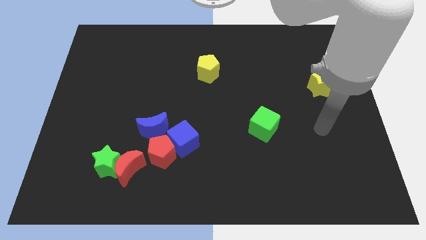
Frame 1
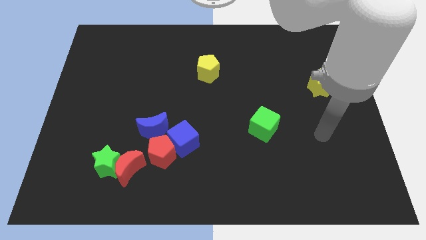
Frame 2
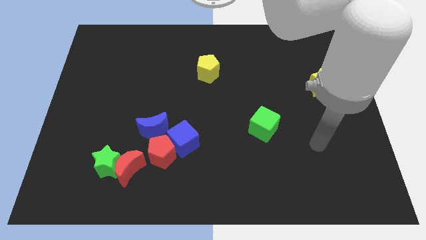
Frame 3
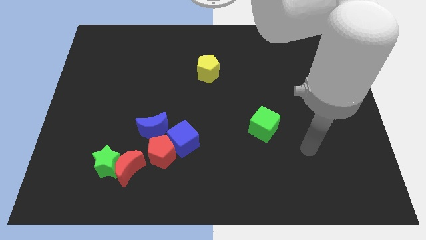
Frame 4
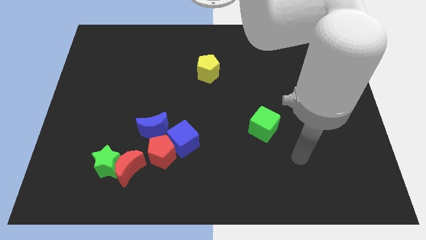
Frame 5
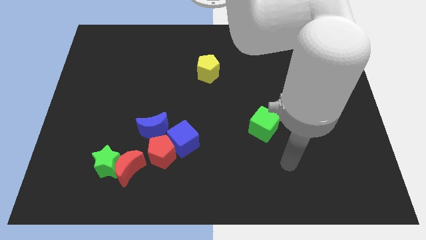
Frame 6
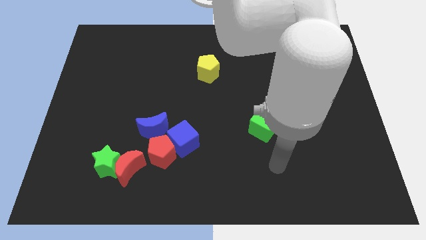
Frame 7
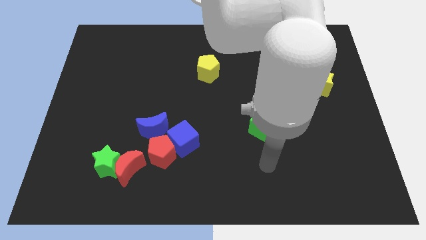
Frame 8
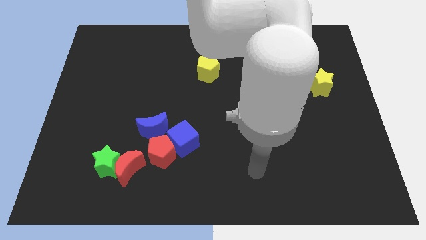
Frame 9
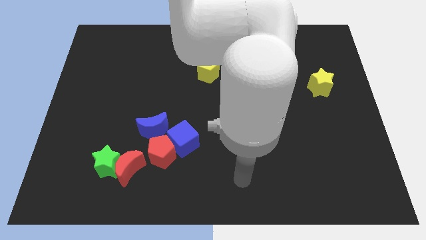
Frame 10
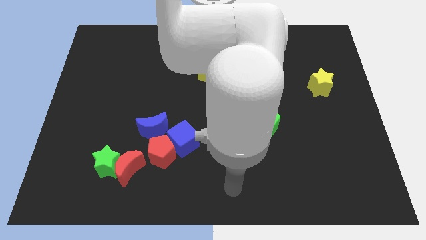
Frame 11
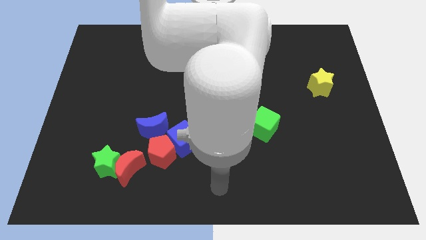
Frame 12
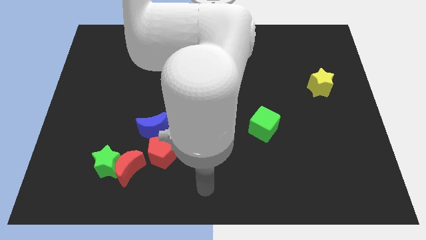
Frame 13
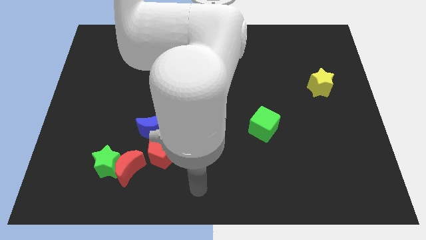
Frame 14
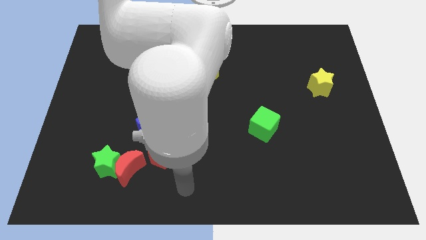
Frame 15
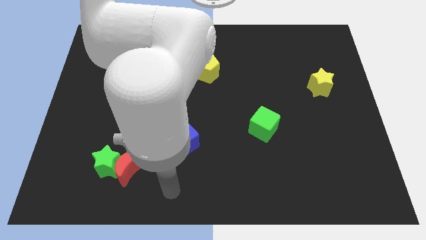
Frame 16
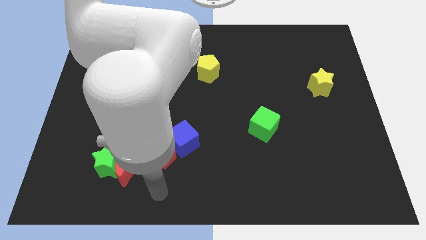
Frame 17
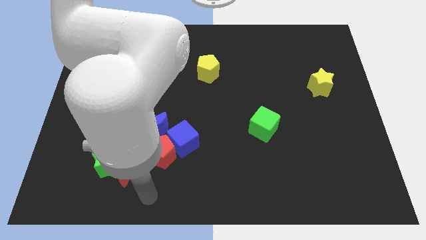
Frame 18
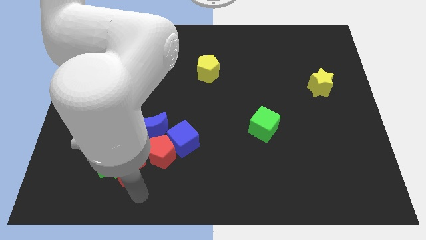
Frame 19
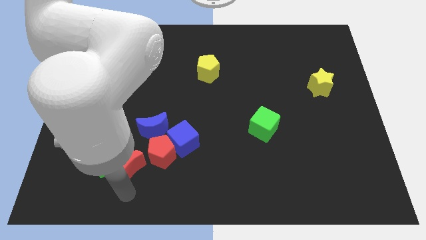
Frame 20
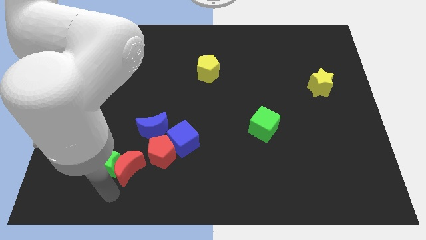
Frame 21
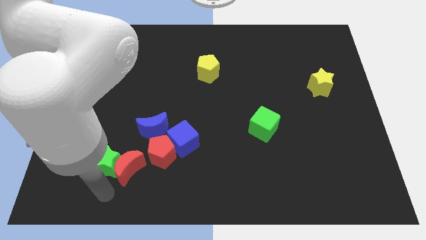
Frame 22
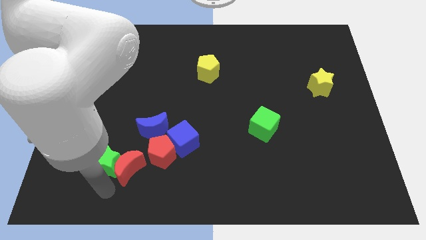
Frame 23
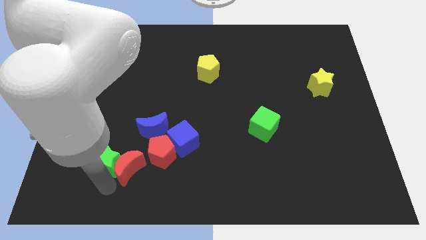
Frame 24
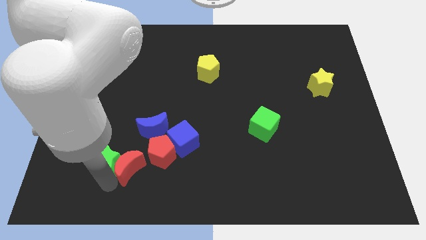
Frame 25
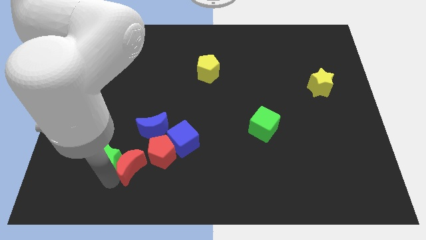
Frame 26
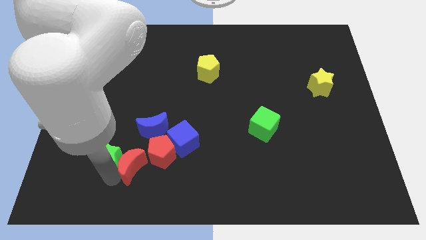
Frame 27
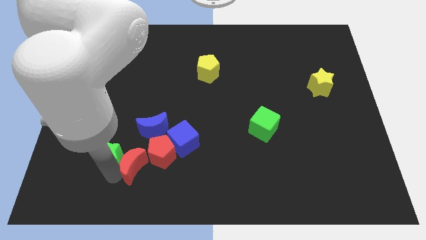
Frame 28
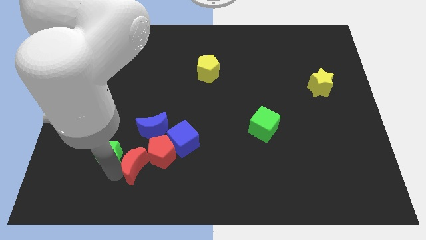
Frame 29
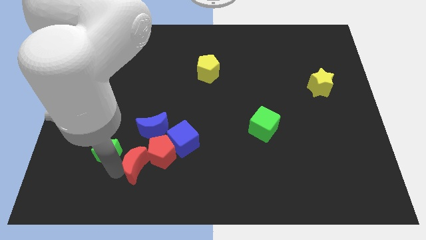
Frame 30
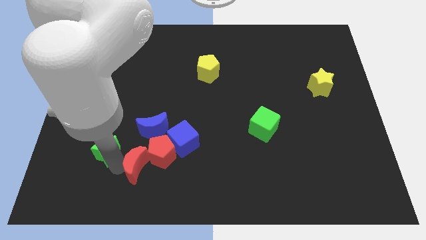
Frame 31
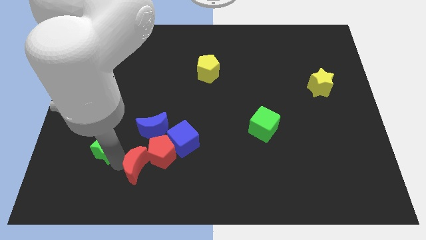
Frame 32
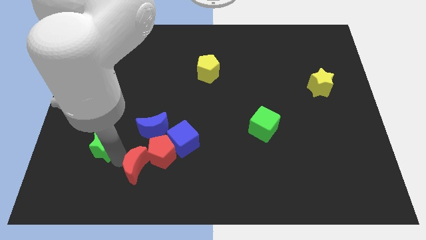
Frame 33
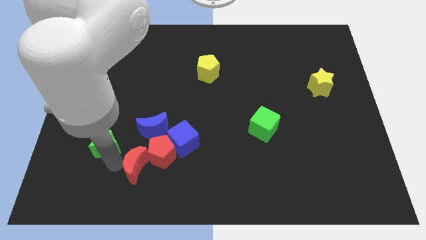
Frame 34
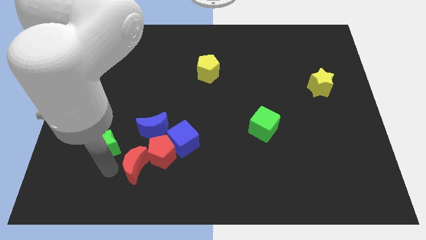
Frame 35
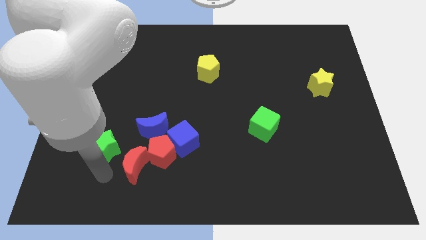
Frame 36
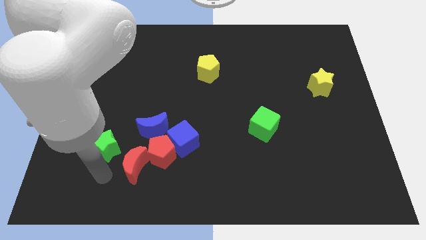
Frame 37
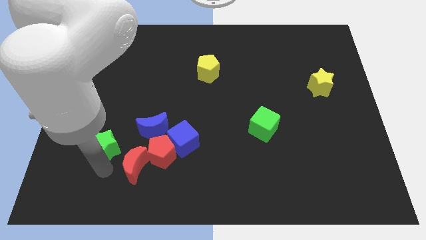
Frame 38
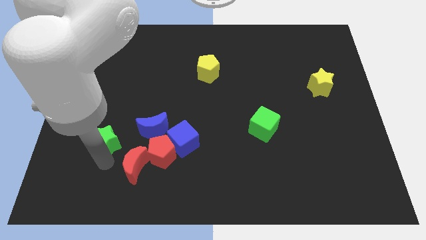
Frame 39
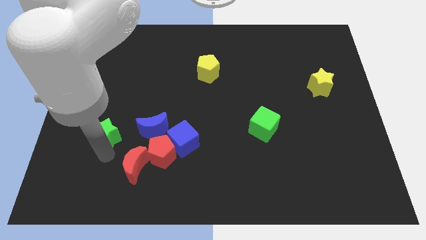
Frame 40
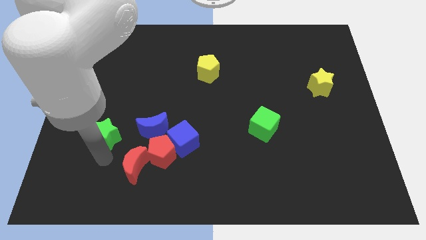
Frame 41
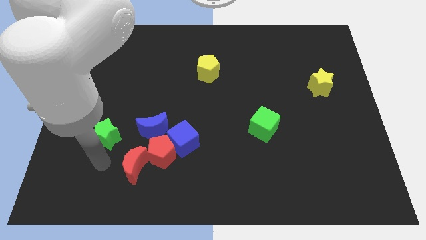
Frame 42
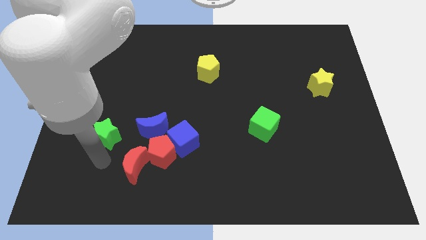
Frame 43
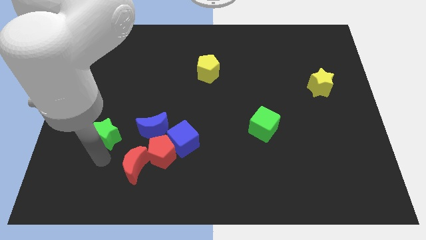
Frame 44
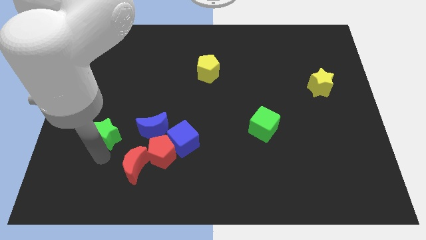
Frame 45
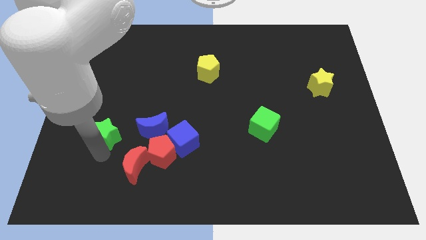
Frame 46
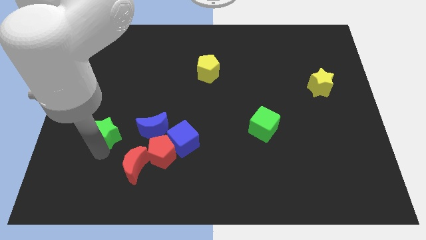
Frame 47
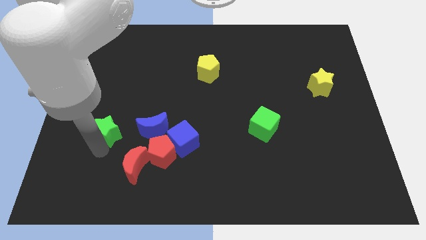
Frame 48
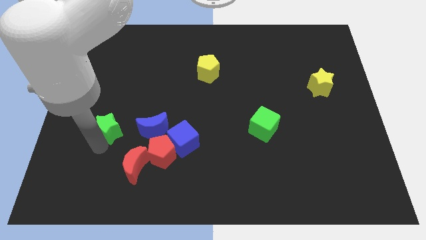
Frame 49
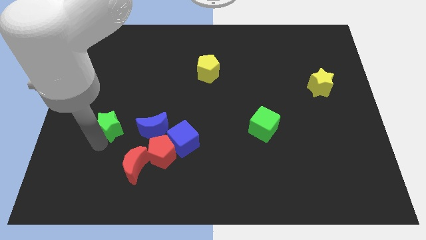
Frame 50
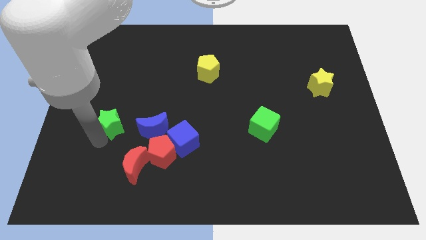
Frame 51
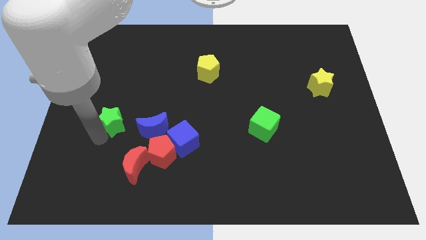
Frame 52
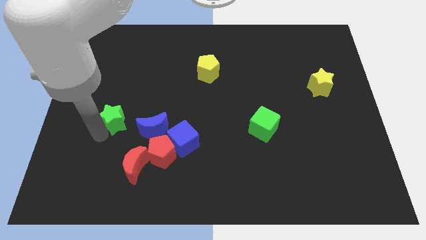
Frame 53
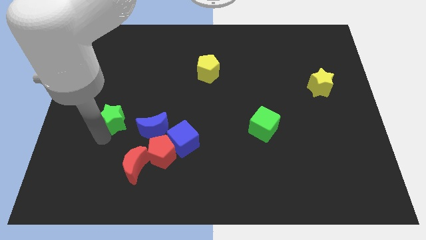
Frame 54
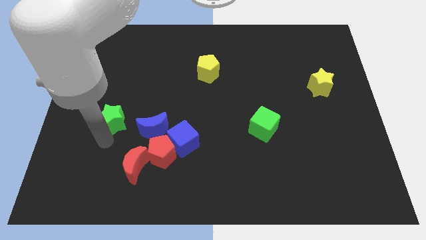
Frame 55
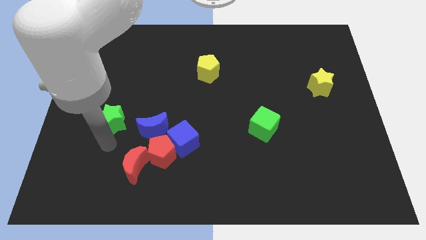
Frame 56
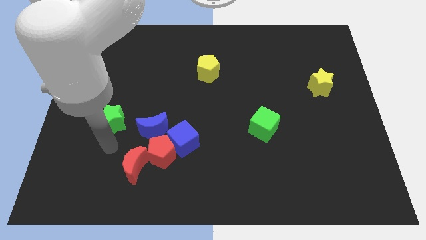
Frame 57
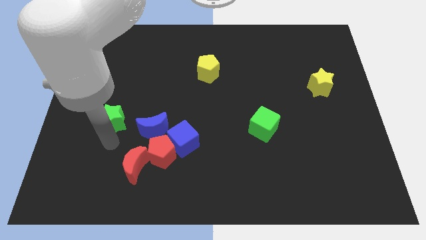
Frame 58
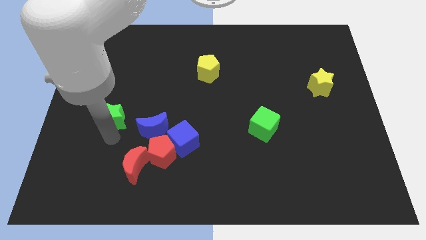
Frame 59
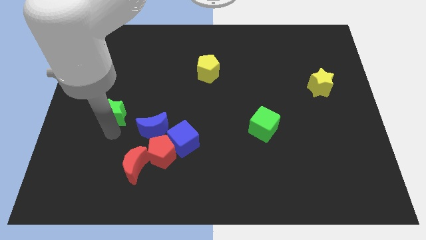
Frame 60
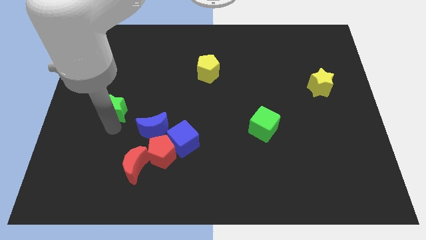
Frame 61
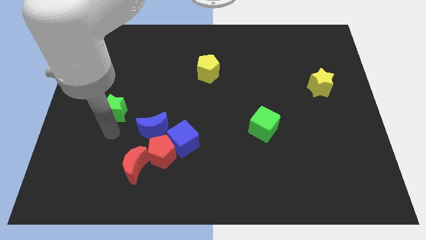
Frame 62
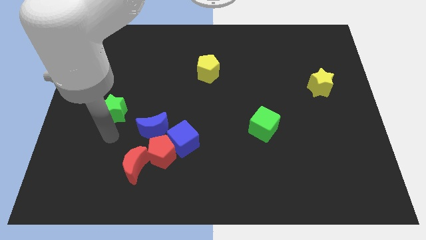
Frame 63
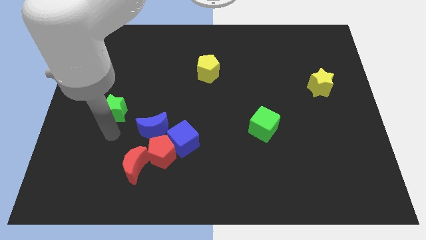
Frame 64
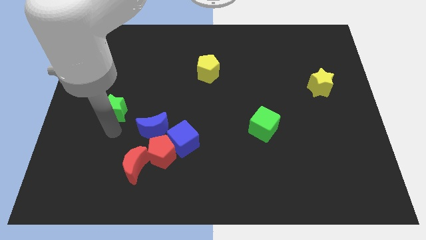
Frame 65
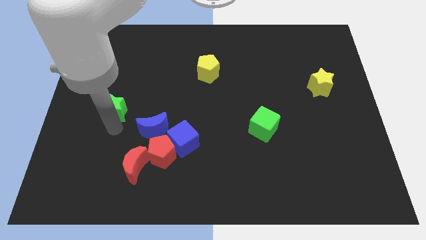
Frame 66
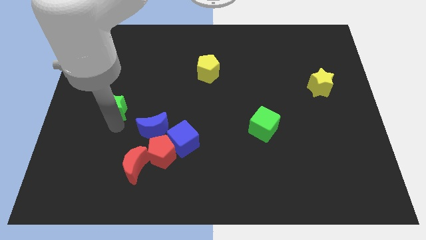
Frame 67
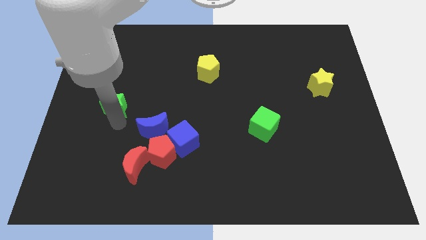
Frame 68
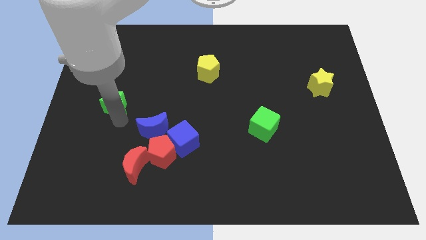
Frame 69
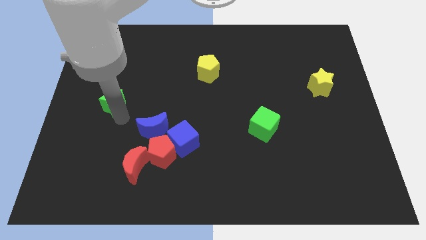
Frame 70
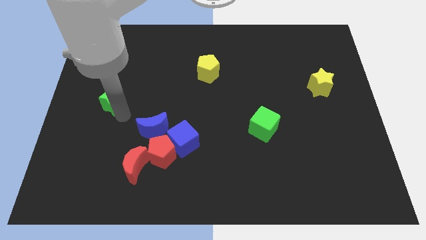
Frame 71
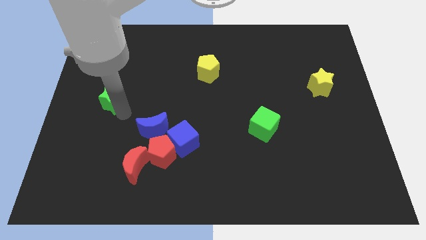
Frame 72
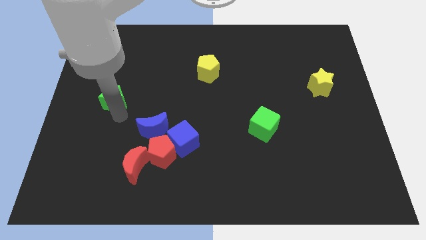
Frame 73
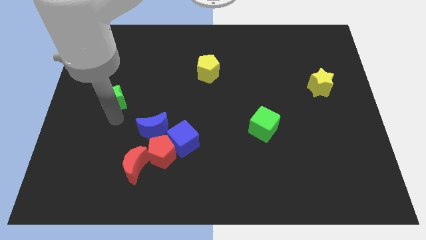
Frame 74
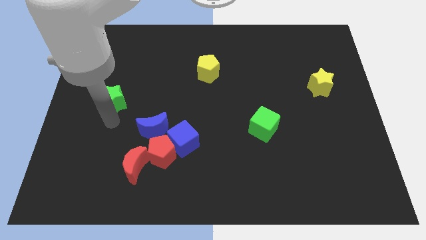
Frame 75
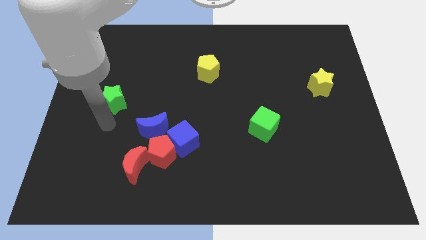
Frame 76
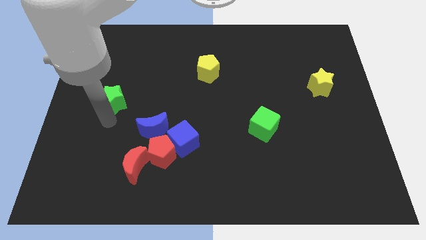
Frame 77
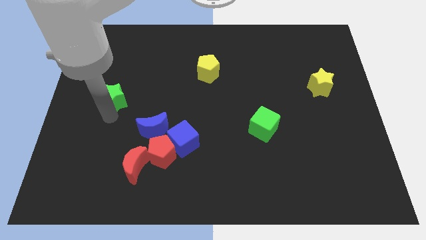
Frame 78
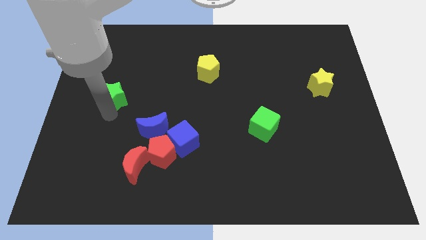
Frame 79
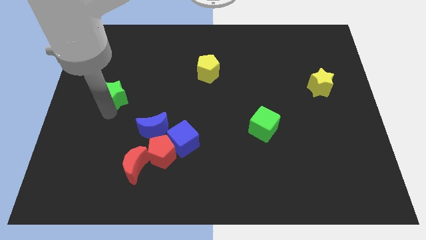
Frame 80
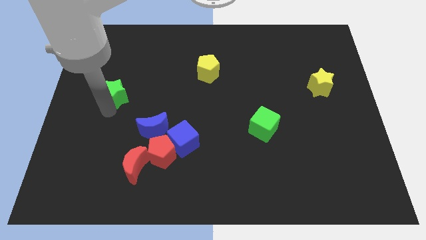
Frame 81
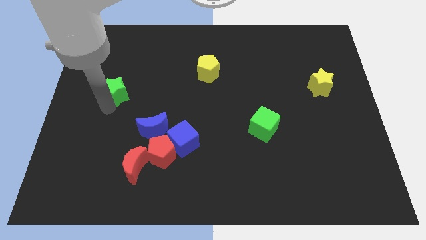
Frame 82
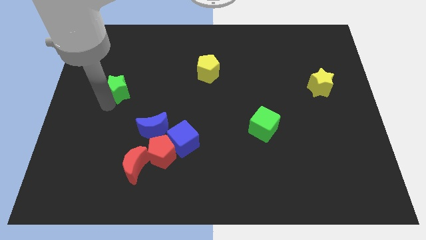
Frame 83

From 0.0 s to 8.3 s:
push the green star up
